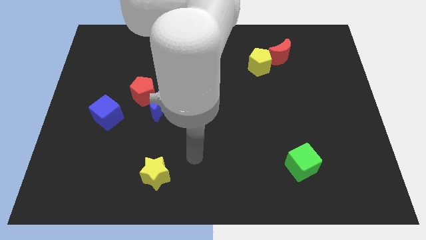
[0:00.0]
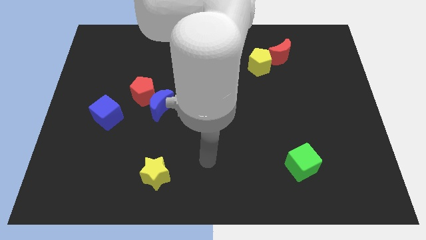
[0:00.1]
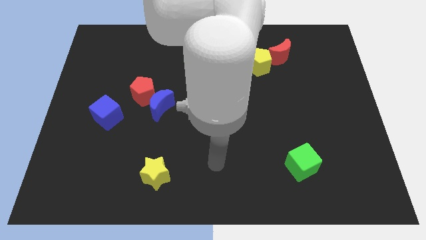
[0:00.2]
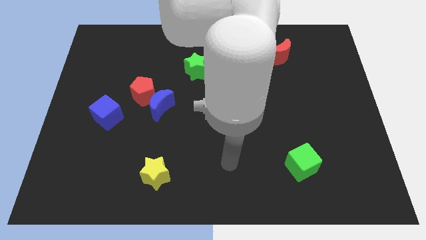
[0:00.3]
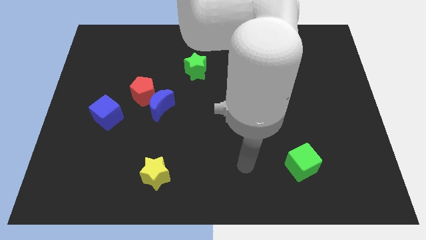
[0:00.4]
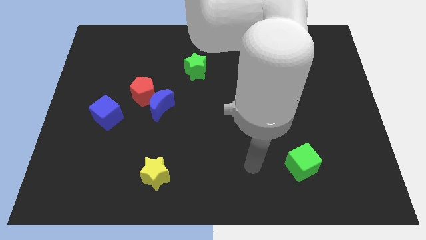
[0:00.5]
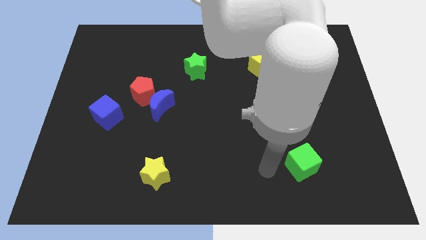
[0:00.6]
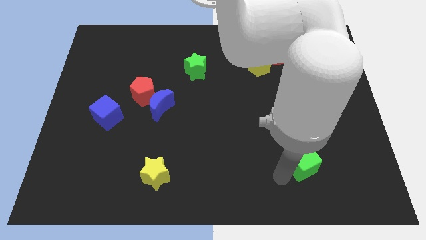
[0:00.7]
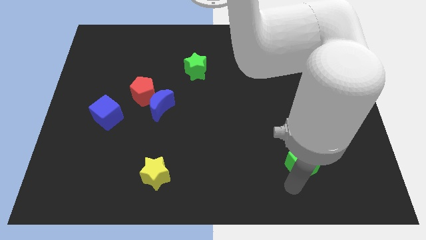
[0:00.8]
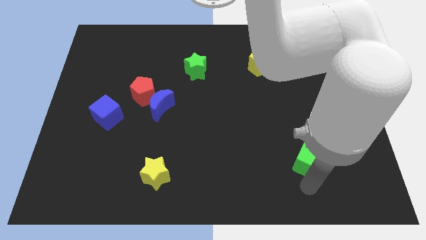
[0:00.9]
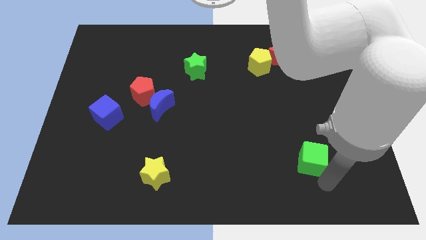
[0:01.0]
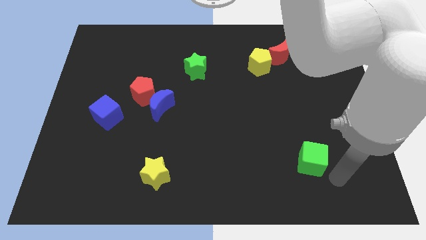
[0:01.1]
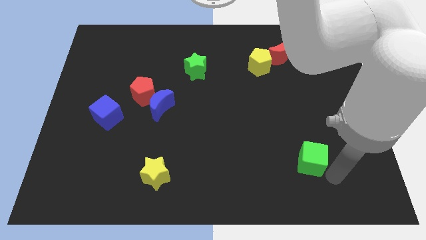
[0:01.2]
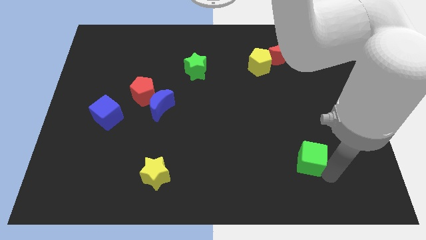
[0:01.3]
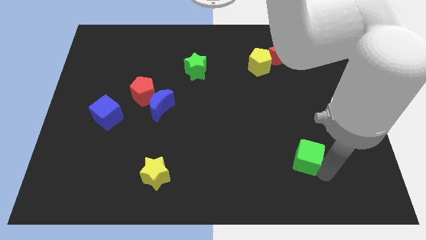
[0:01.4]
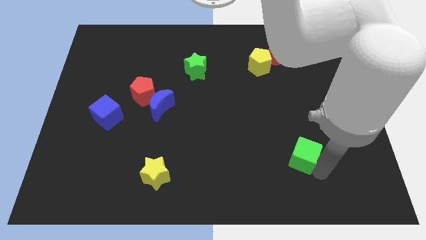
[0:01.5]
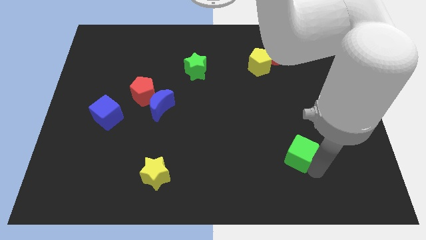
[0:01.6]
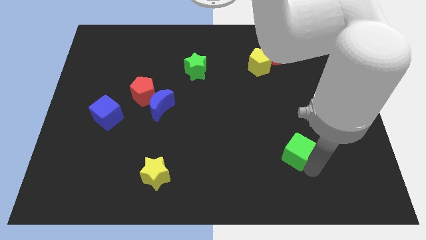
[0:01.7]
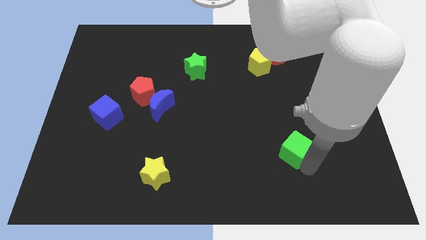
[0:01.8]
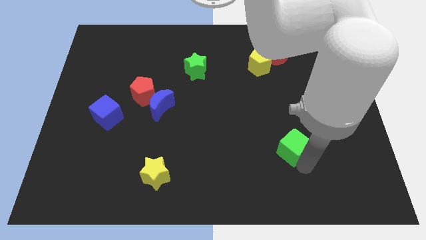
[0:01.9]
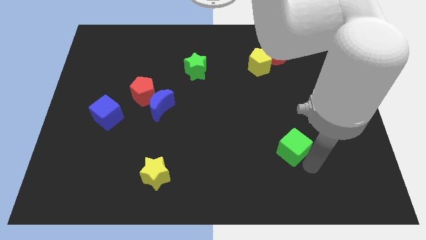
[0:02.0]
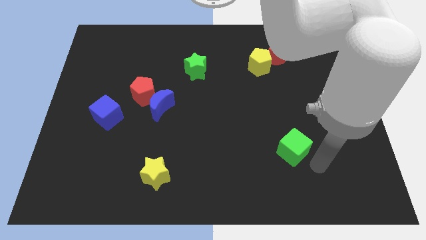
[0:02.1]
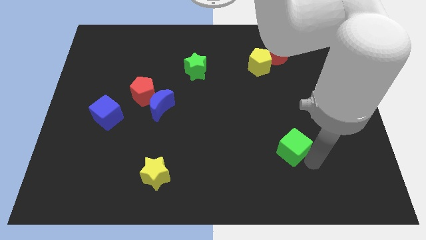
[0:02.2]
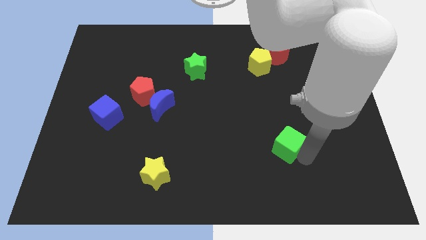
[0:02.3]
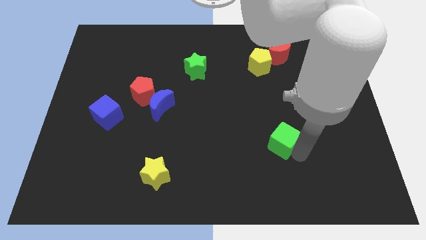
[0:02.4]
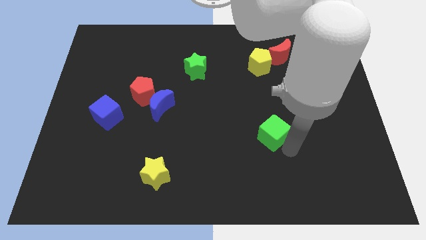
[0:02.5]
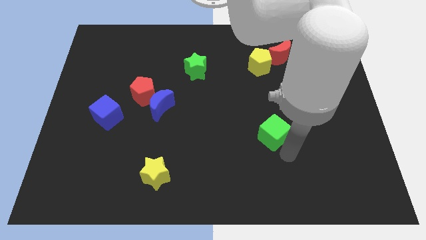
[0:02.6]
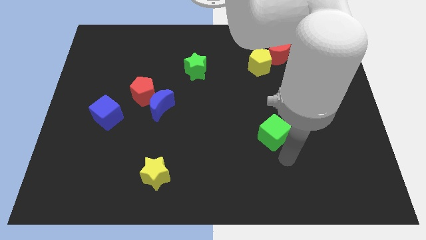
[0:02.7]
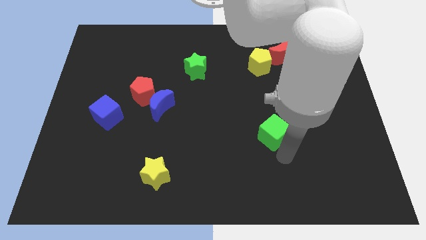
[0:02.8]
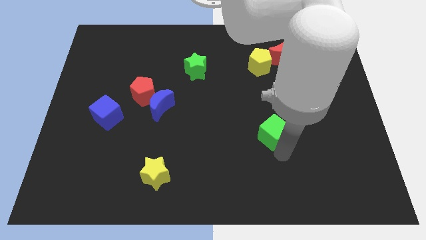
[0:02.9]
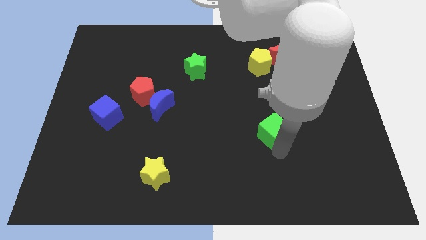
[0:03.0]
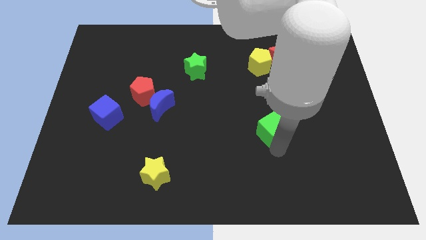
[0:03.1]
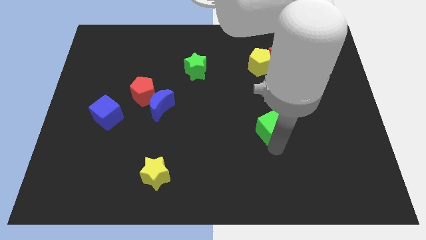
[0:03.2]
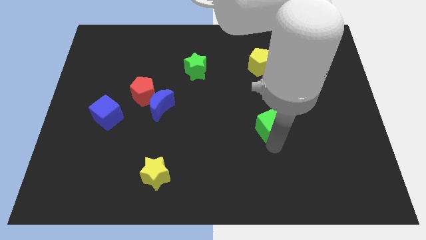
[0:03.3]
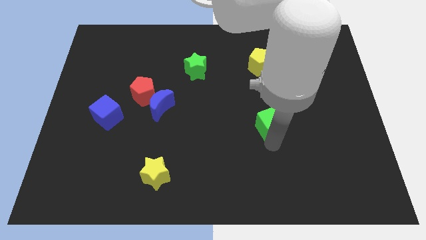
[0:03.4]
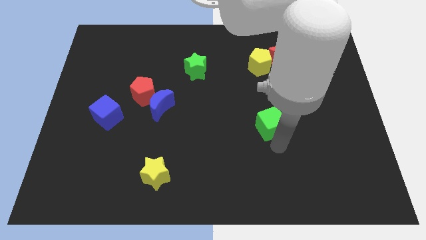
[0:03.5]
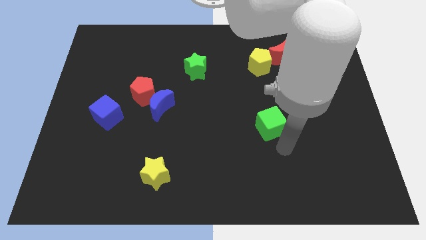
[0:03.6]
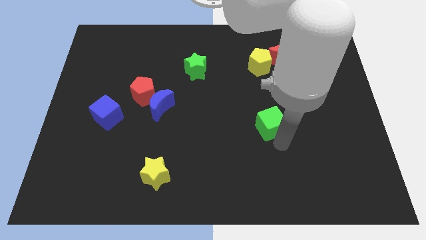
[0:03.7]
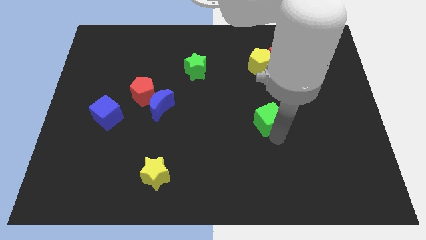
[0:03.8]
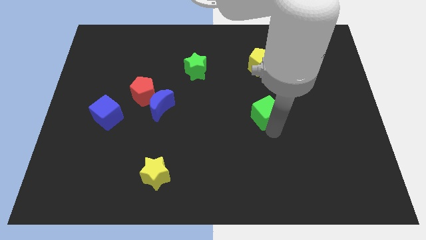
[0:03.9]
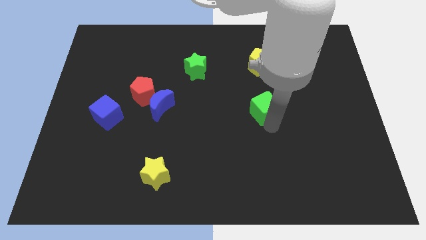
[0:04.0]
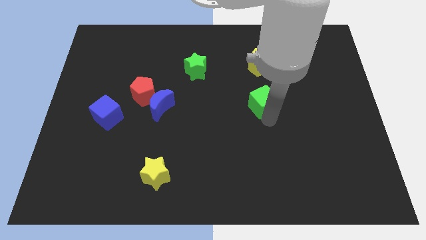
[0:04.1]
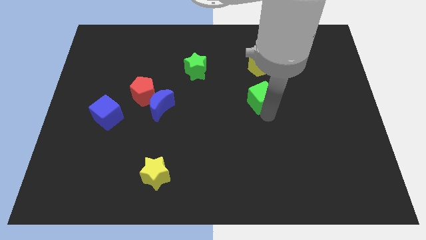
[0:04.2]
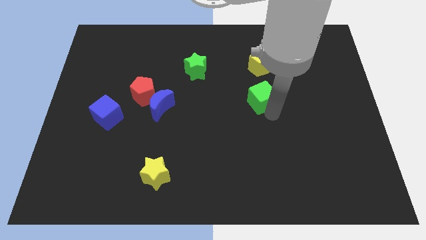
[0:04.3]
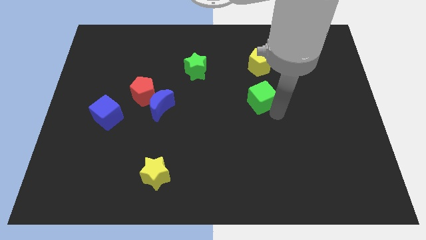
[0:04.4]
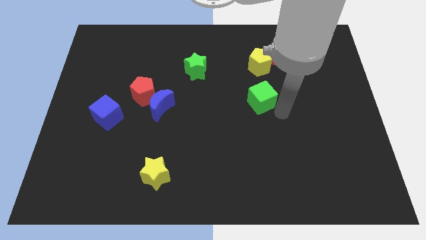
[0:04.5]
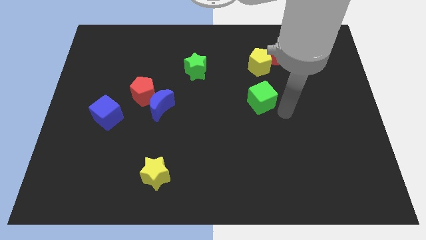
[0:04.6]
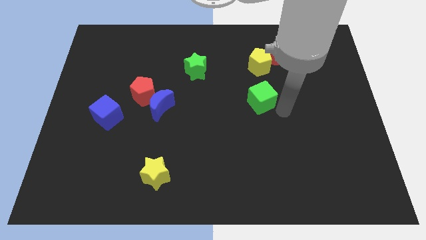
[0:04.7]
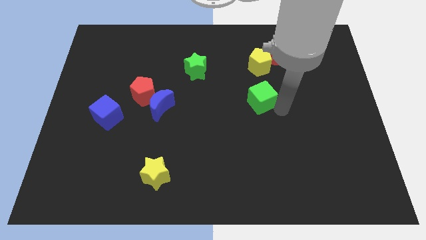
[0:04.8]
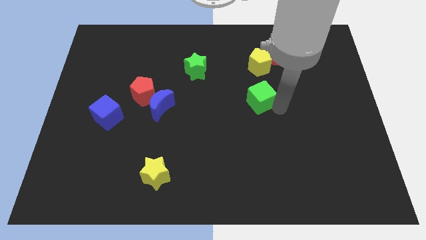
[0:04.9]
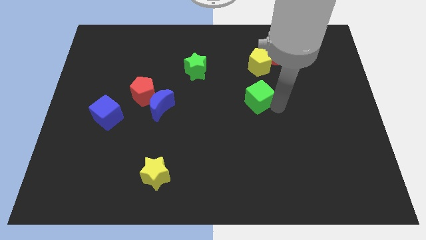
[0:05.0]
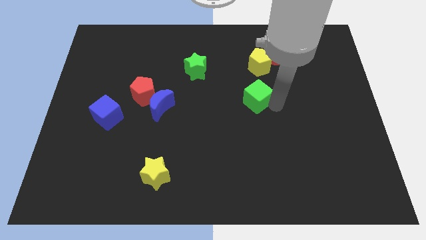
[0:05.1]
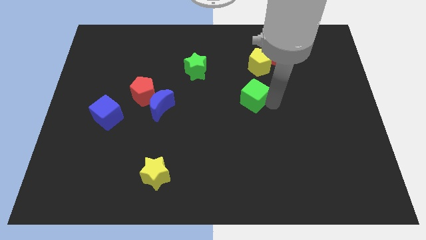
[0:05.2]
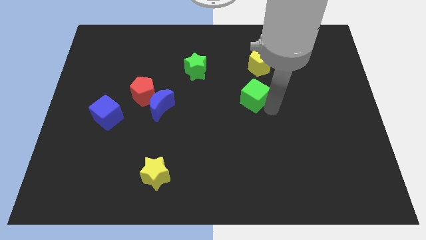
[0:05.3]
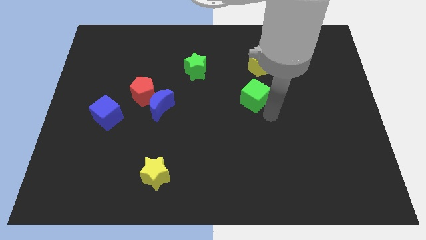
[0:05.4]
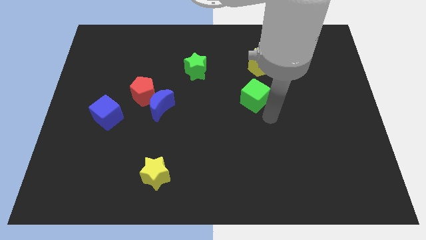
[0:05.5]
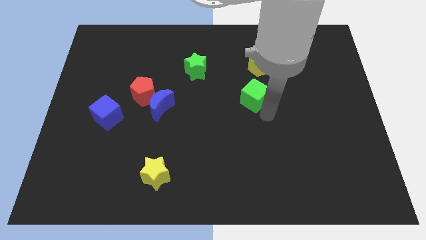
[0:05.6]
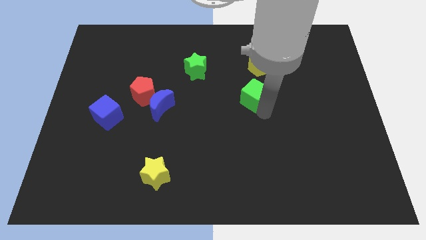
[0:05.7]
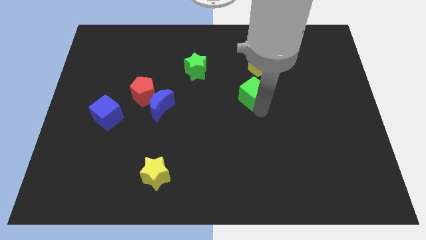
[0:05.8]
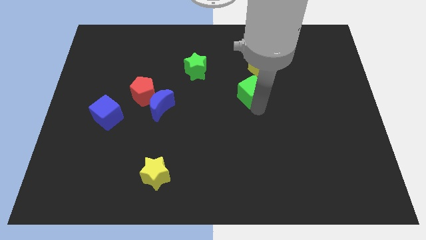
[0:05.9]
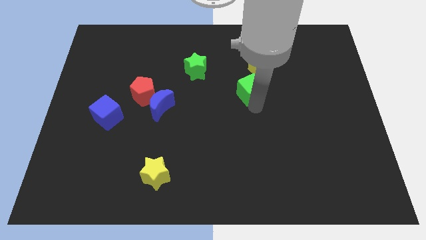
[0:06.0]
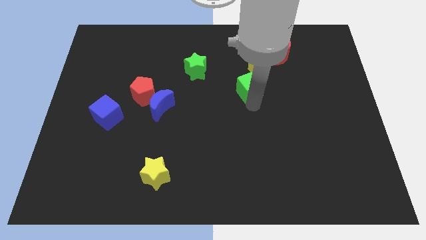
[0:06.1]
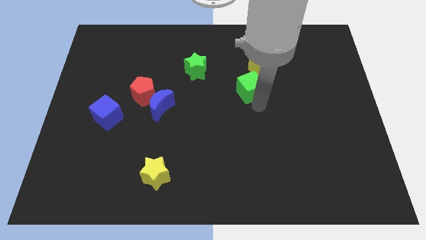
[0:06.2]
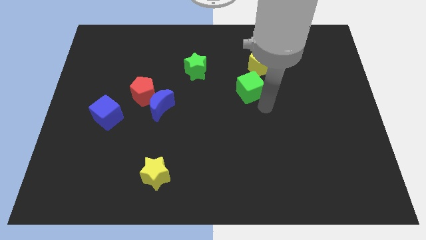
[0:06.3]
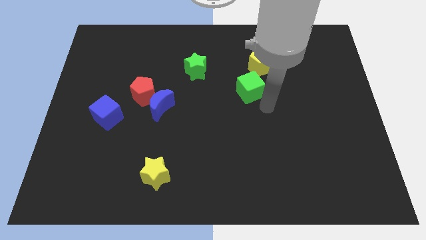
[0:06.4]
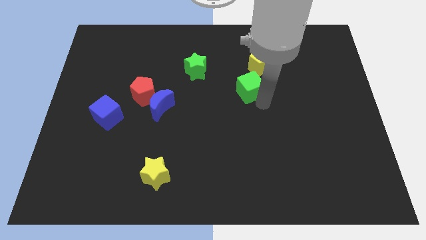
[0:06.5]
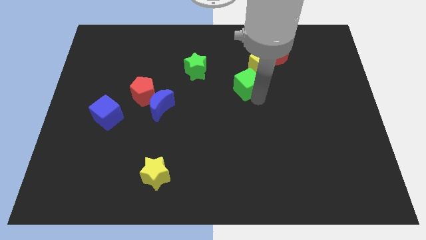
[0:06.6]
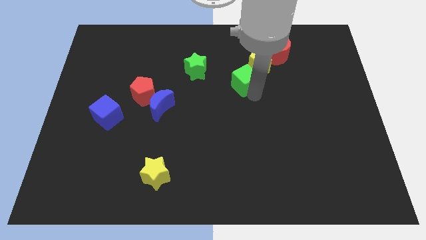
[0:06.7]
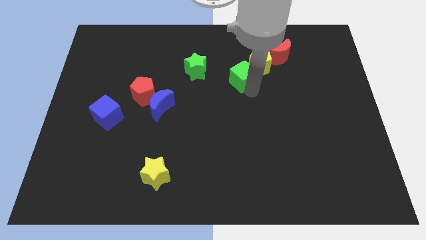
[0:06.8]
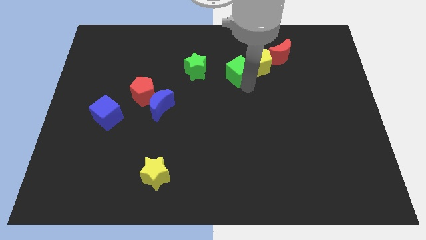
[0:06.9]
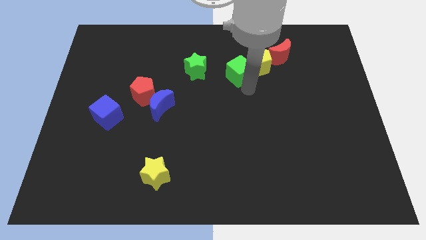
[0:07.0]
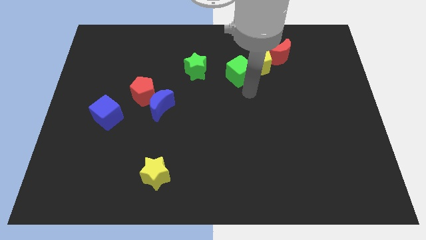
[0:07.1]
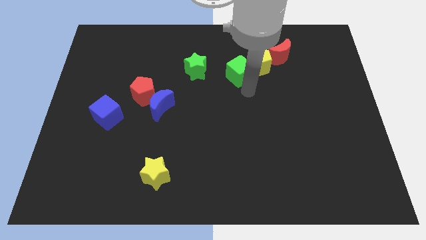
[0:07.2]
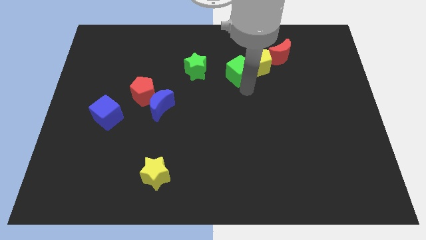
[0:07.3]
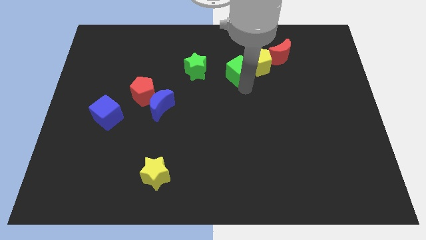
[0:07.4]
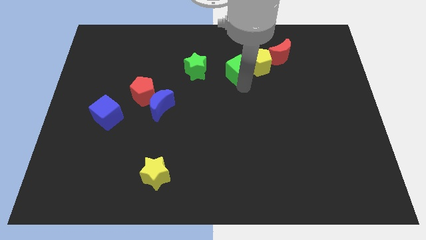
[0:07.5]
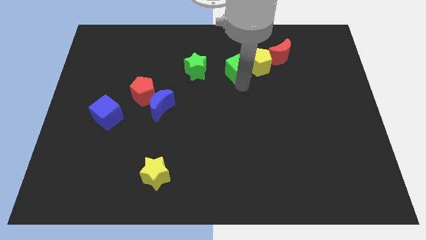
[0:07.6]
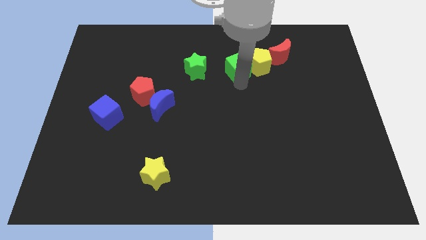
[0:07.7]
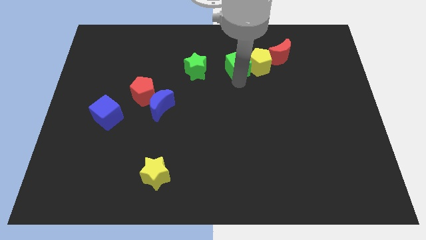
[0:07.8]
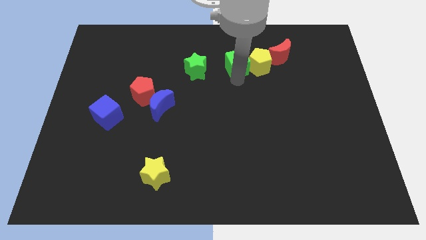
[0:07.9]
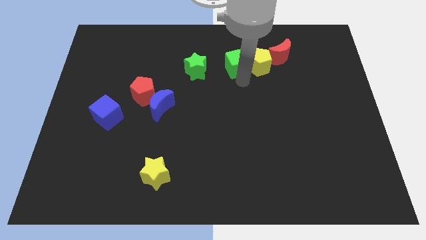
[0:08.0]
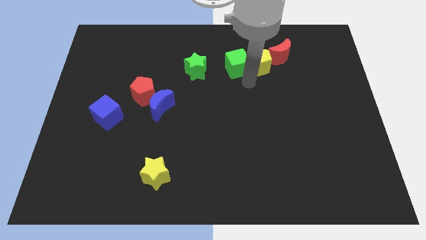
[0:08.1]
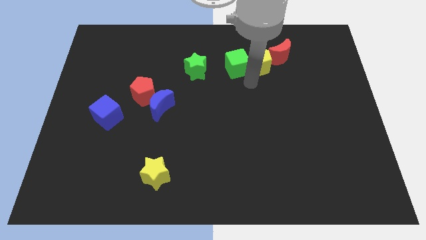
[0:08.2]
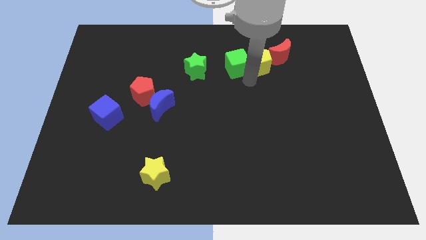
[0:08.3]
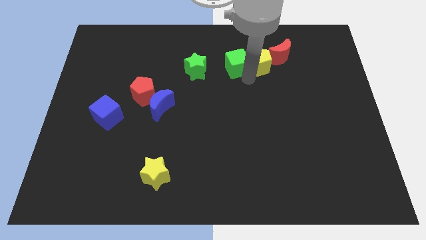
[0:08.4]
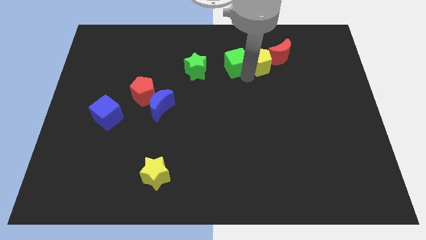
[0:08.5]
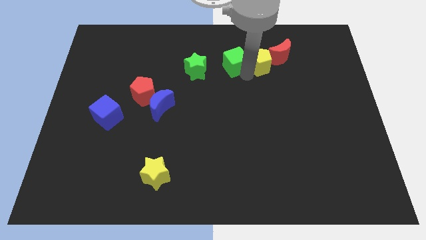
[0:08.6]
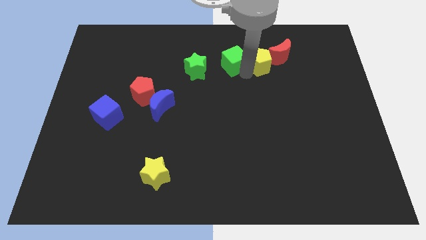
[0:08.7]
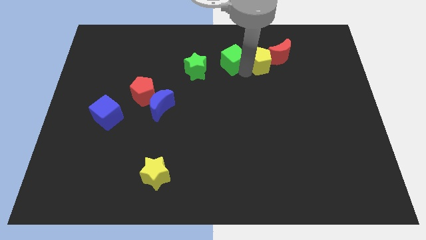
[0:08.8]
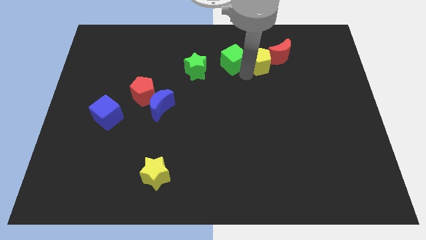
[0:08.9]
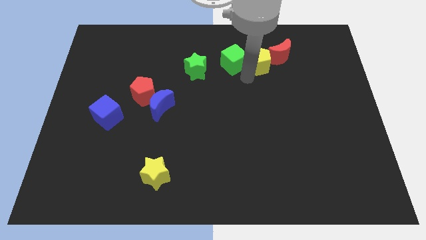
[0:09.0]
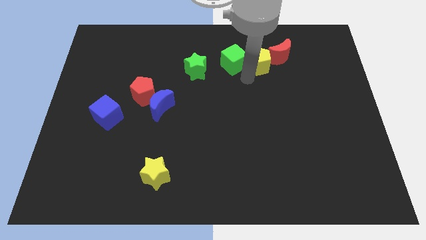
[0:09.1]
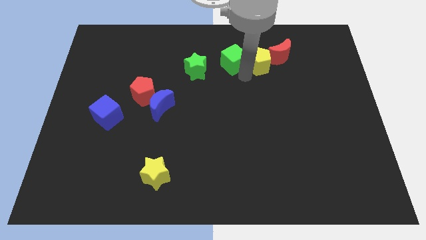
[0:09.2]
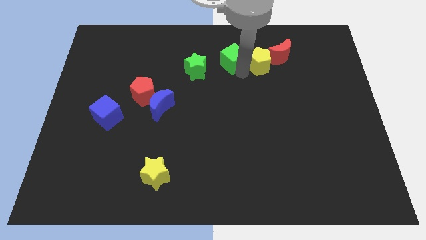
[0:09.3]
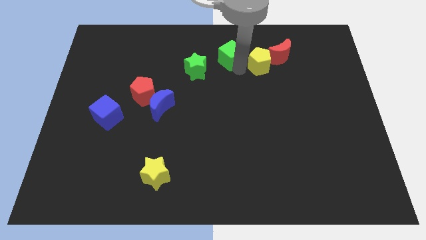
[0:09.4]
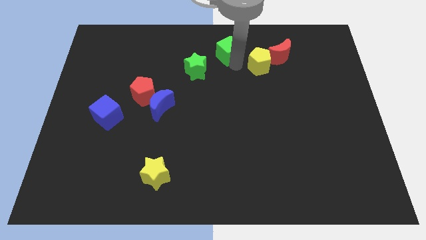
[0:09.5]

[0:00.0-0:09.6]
move the green cube to the top
